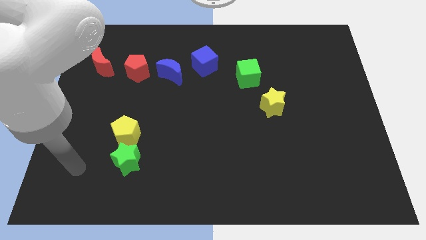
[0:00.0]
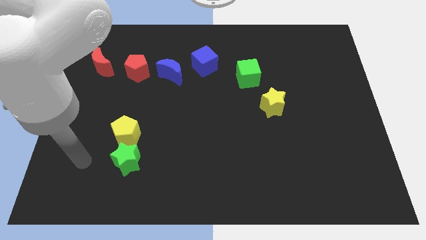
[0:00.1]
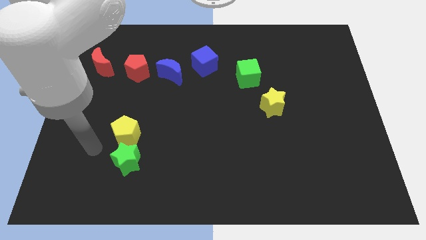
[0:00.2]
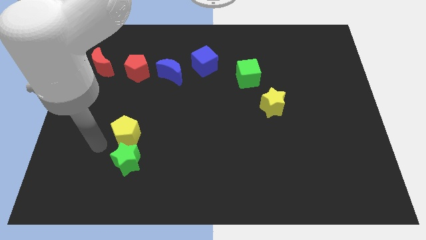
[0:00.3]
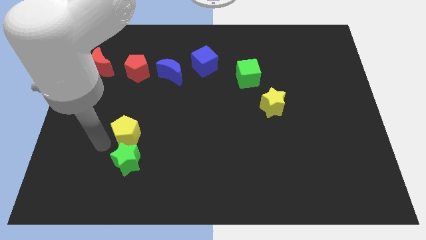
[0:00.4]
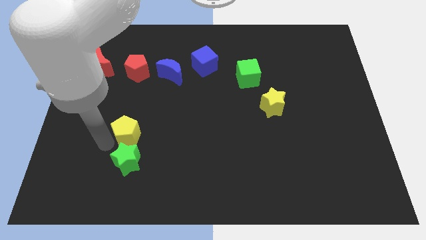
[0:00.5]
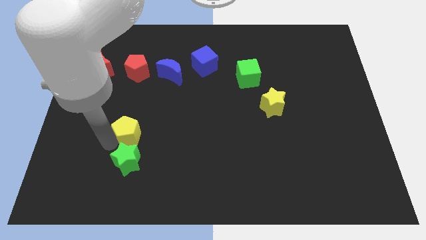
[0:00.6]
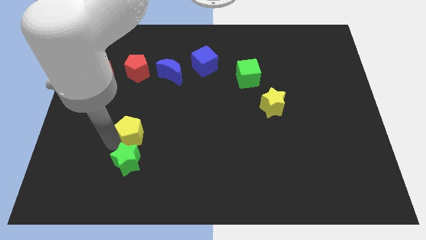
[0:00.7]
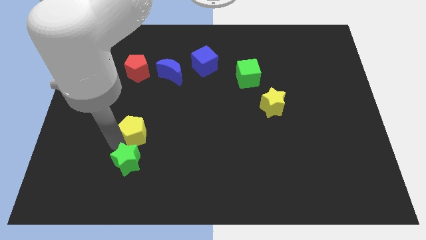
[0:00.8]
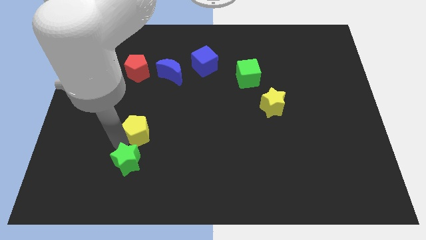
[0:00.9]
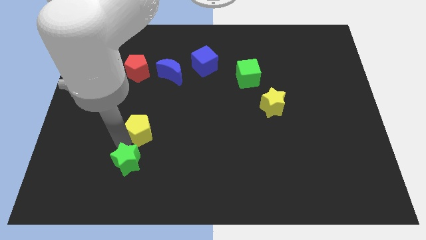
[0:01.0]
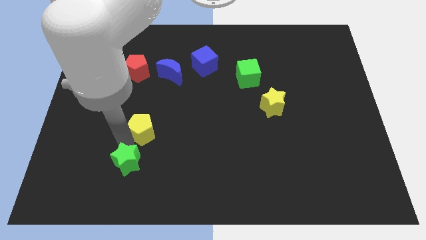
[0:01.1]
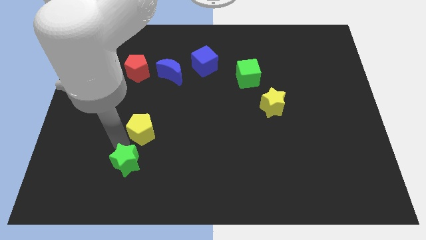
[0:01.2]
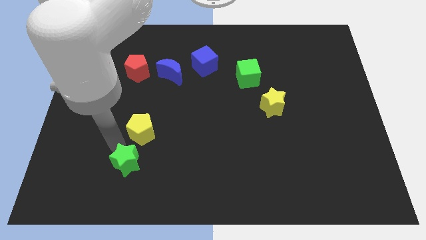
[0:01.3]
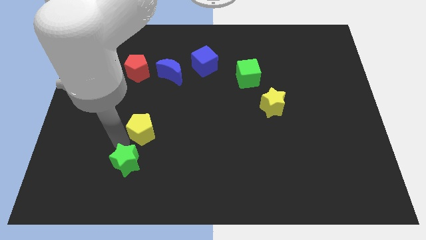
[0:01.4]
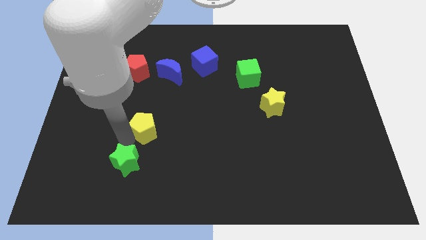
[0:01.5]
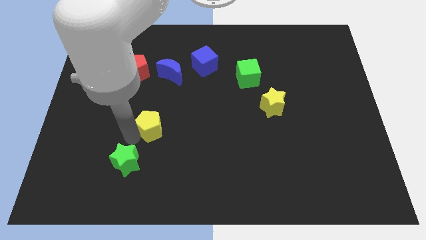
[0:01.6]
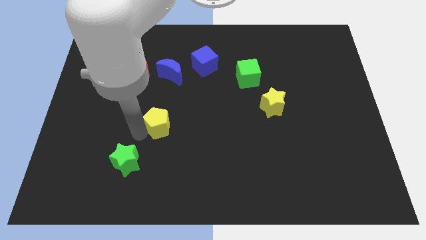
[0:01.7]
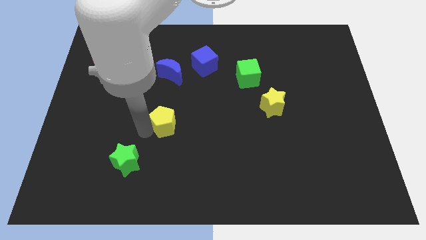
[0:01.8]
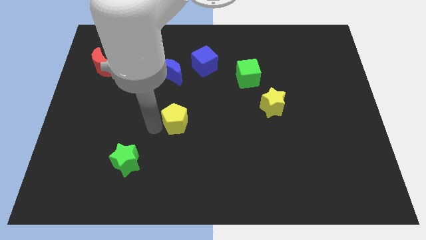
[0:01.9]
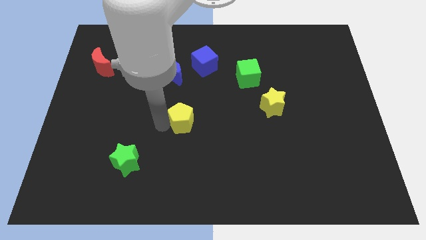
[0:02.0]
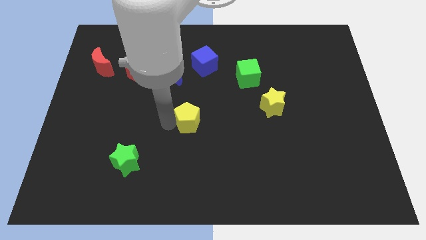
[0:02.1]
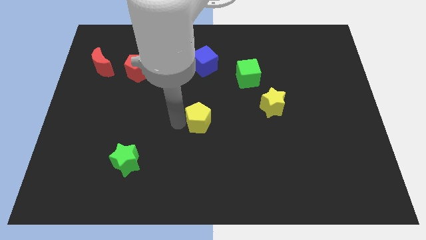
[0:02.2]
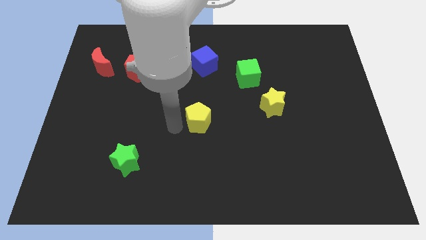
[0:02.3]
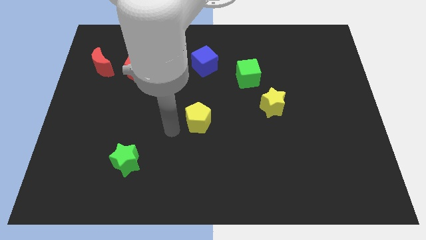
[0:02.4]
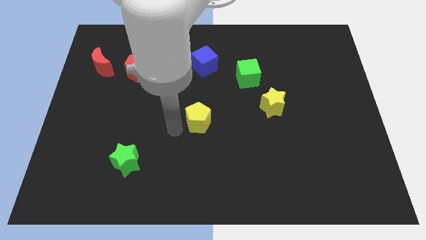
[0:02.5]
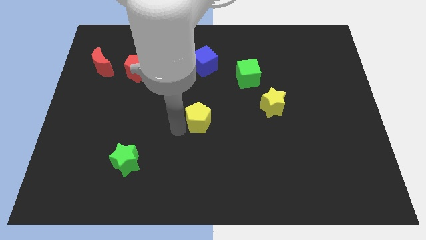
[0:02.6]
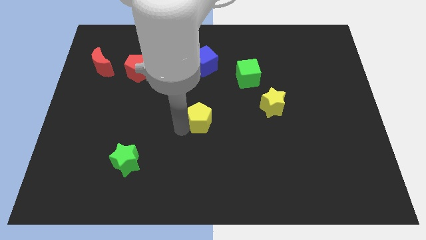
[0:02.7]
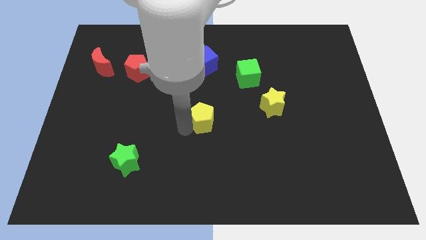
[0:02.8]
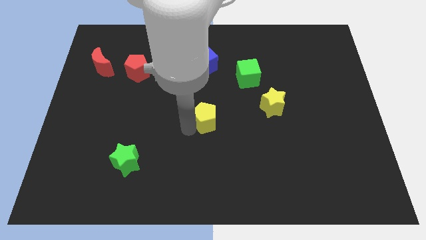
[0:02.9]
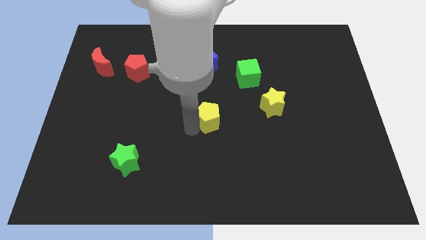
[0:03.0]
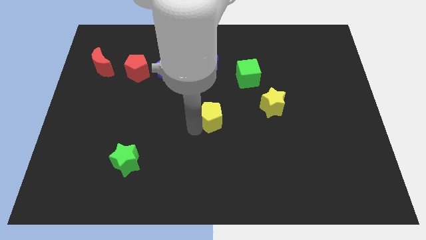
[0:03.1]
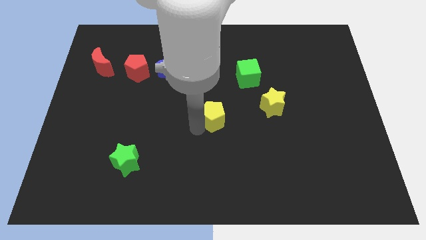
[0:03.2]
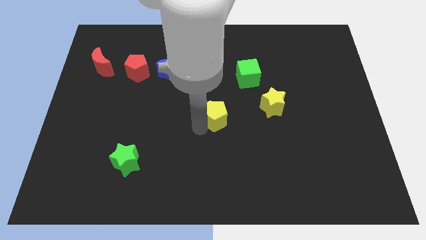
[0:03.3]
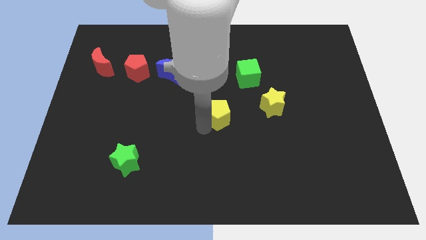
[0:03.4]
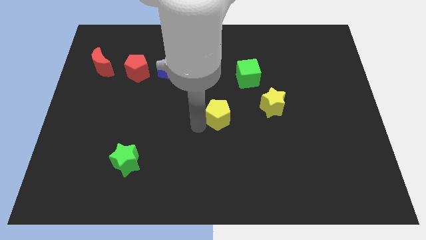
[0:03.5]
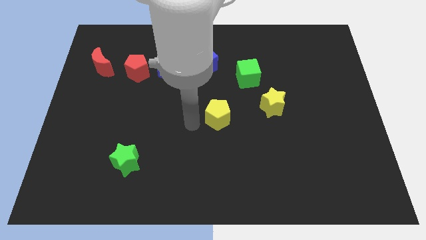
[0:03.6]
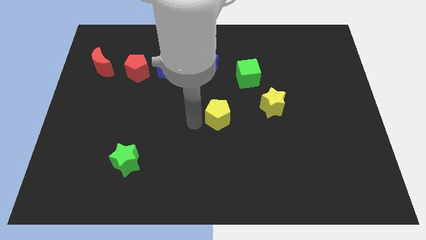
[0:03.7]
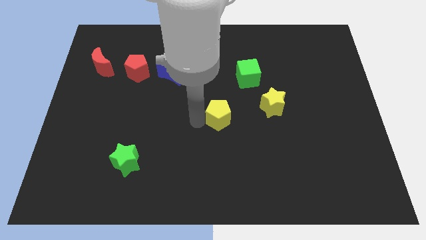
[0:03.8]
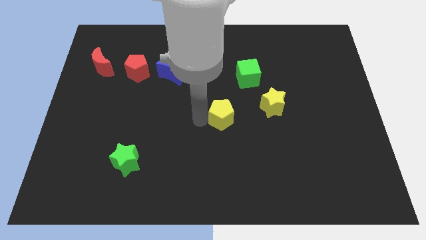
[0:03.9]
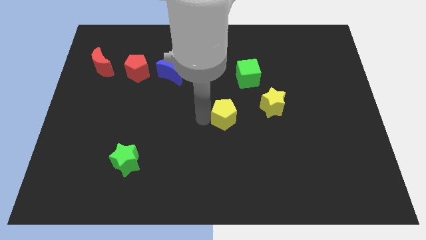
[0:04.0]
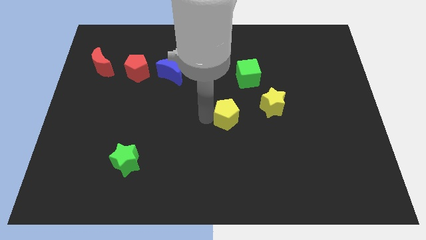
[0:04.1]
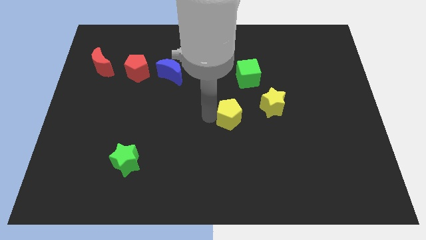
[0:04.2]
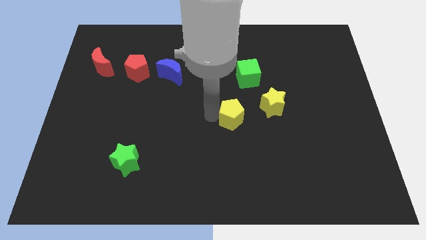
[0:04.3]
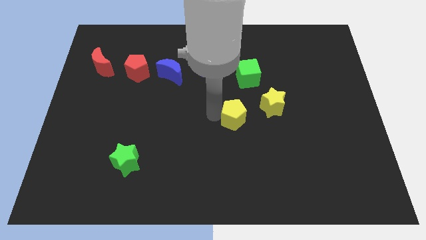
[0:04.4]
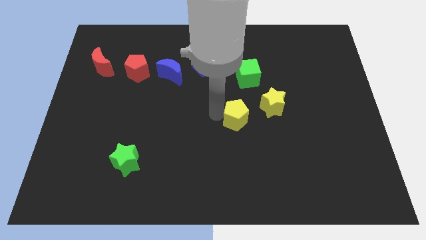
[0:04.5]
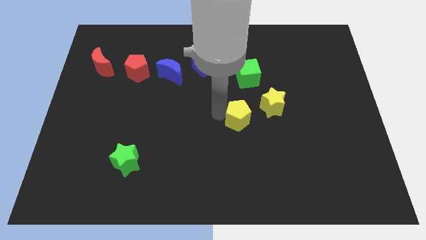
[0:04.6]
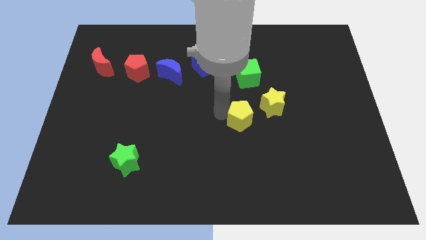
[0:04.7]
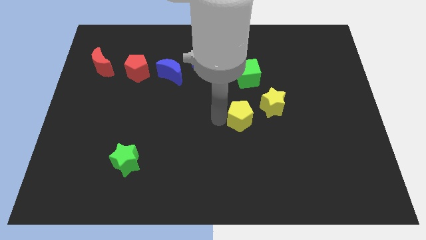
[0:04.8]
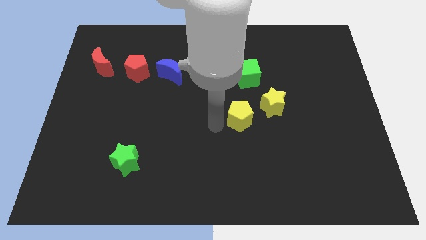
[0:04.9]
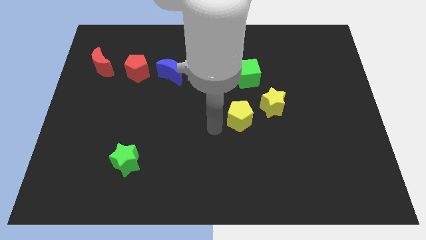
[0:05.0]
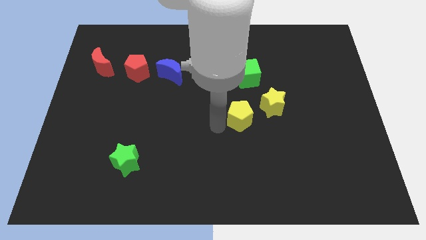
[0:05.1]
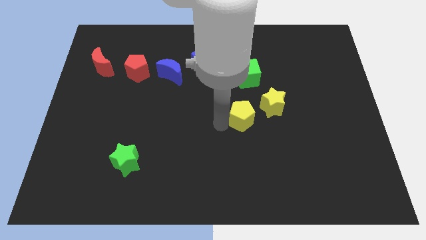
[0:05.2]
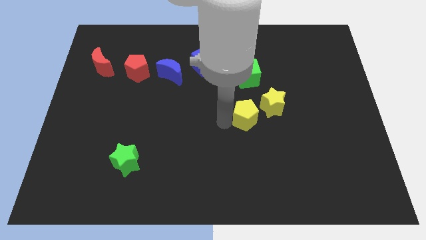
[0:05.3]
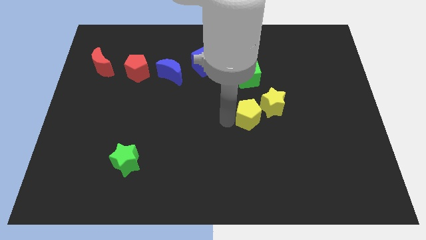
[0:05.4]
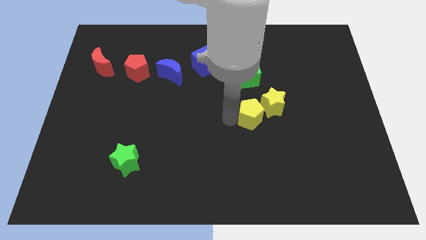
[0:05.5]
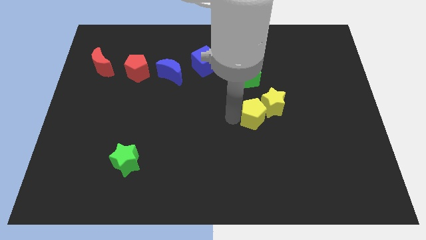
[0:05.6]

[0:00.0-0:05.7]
put the yellow pentagon to the yellow star

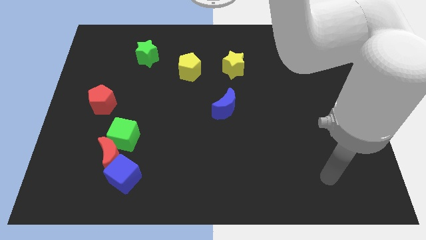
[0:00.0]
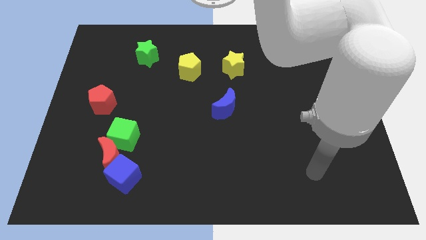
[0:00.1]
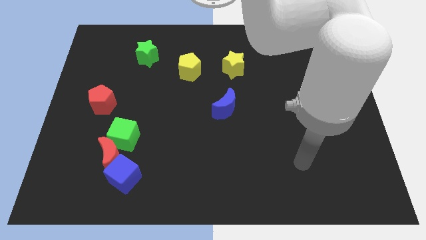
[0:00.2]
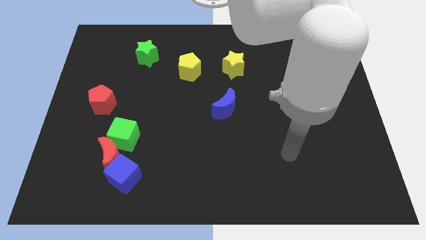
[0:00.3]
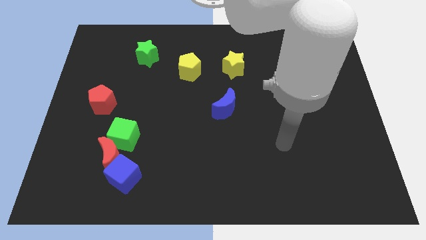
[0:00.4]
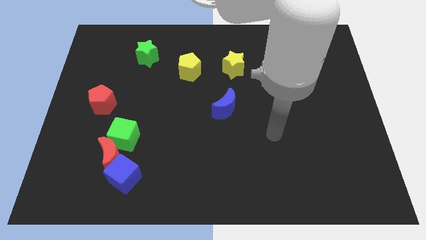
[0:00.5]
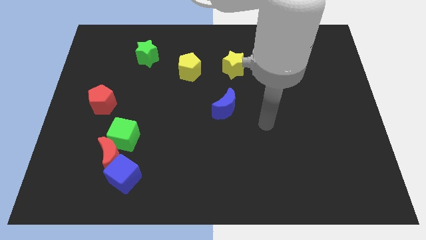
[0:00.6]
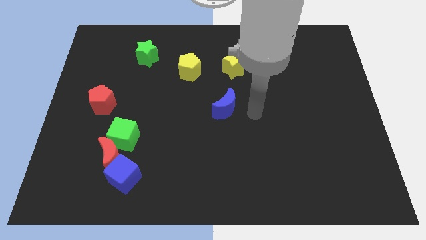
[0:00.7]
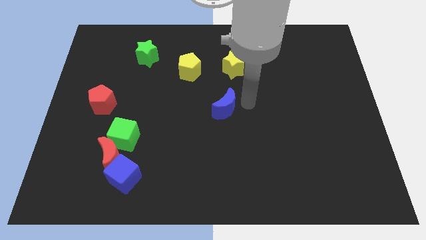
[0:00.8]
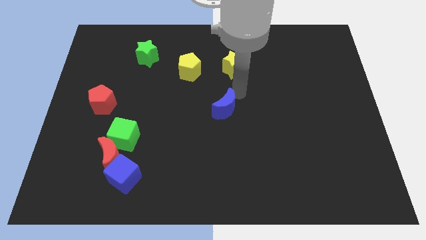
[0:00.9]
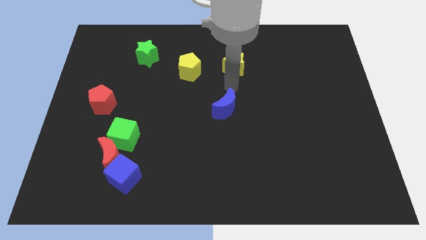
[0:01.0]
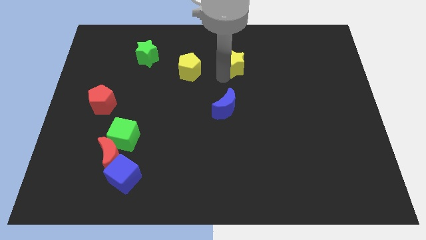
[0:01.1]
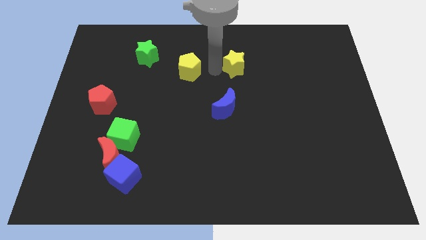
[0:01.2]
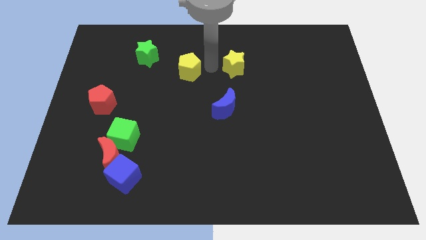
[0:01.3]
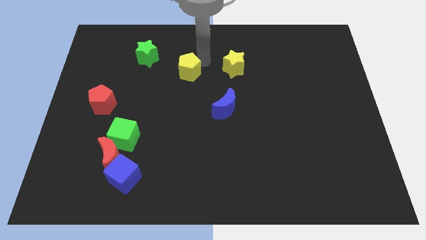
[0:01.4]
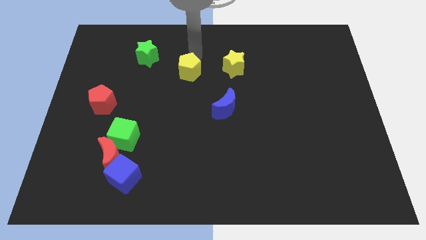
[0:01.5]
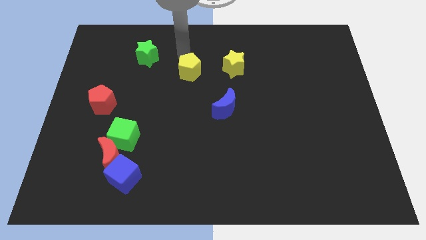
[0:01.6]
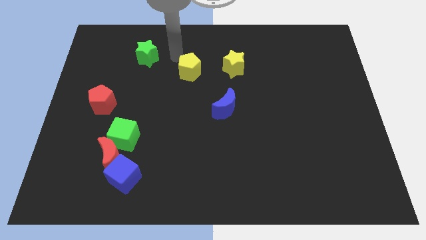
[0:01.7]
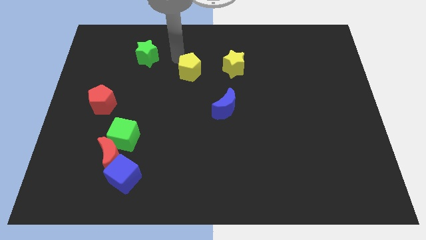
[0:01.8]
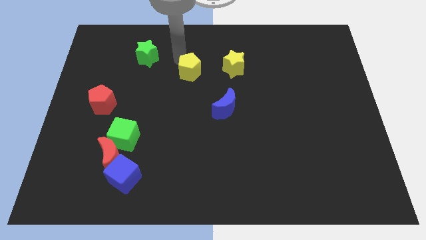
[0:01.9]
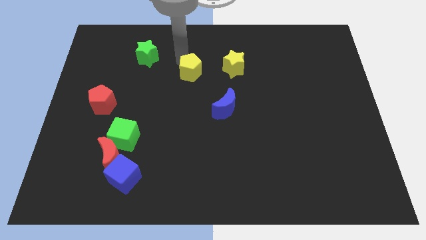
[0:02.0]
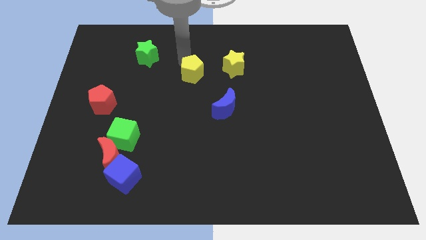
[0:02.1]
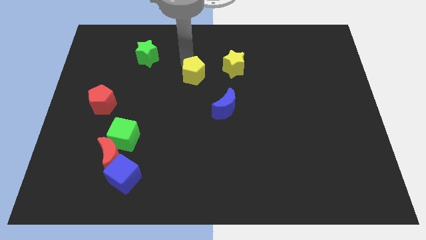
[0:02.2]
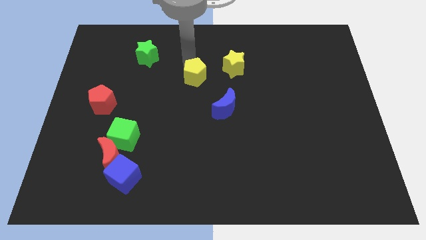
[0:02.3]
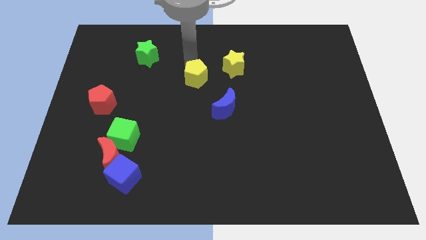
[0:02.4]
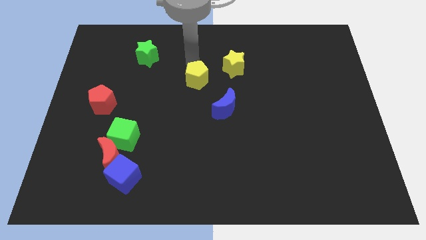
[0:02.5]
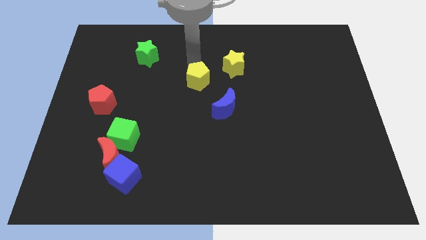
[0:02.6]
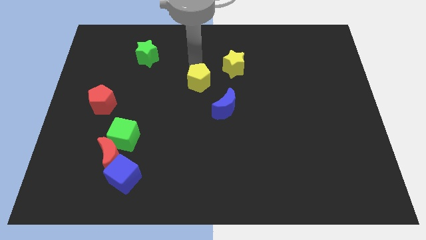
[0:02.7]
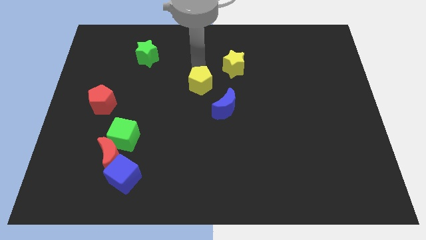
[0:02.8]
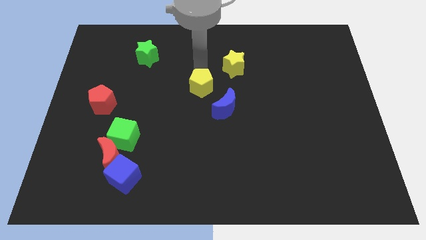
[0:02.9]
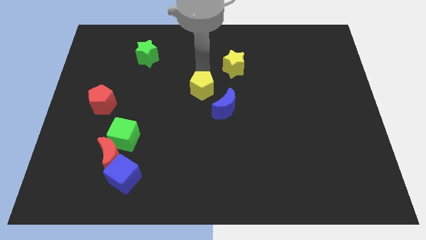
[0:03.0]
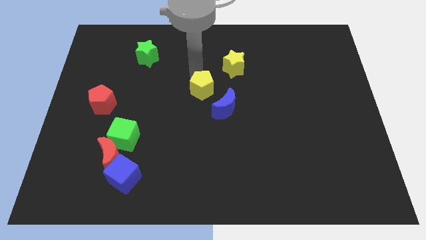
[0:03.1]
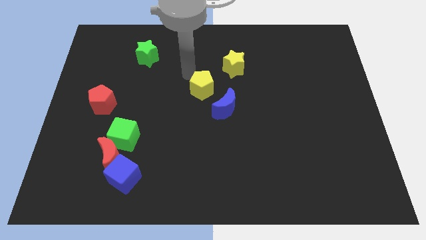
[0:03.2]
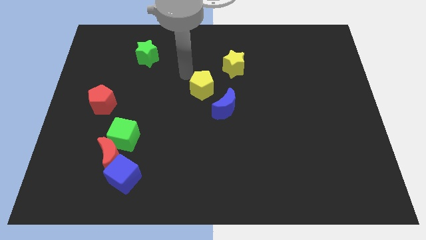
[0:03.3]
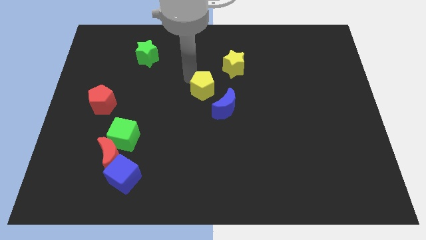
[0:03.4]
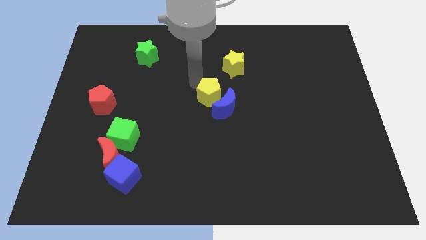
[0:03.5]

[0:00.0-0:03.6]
slide the yellow pentagon next to the blue moon
